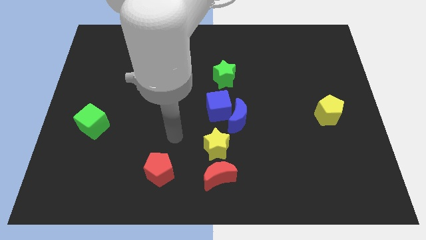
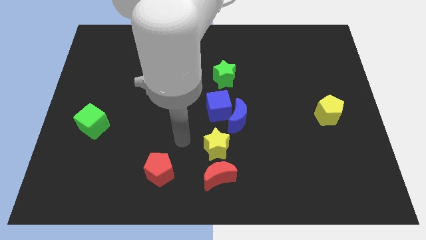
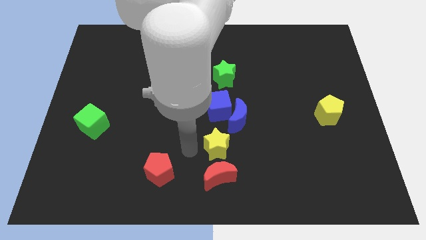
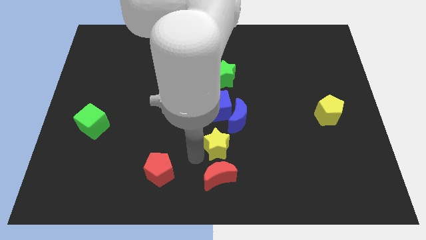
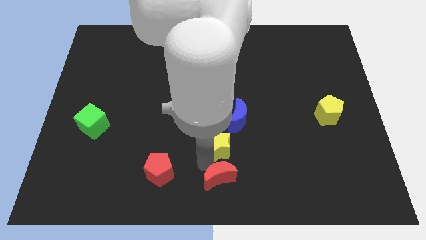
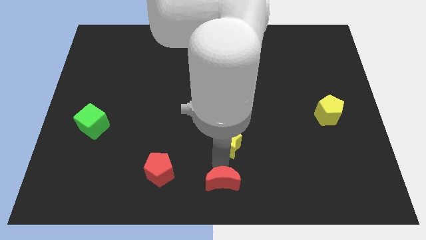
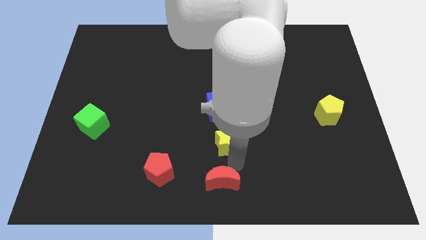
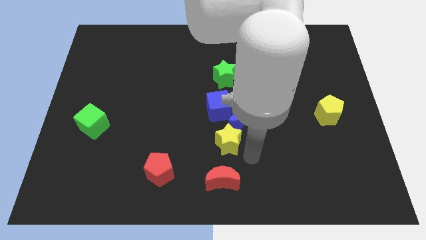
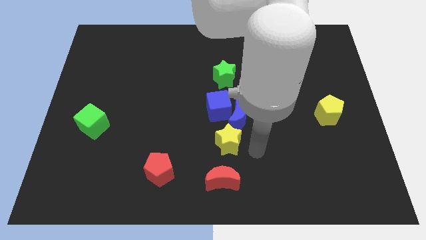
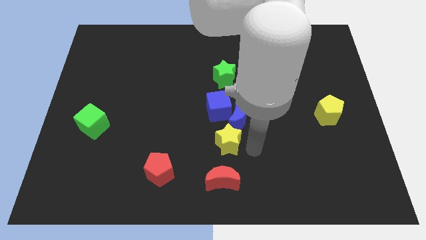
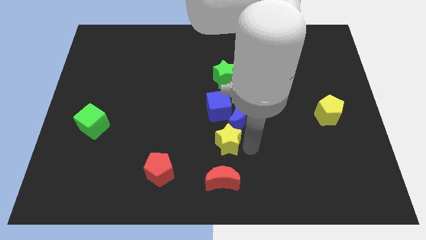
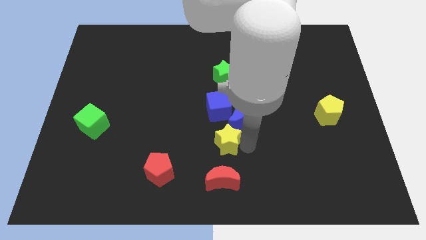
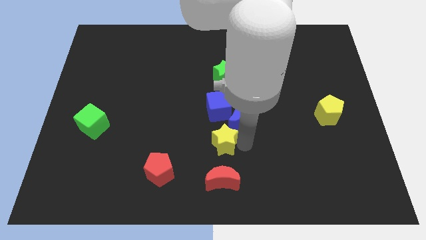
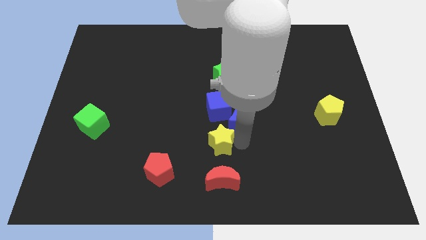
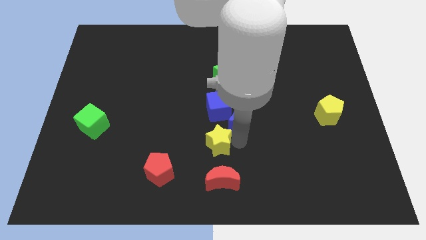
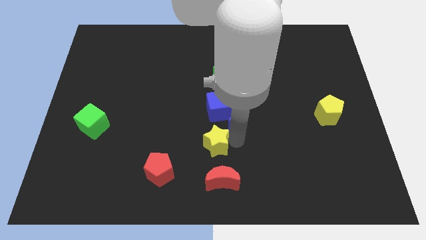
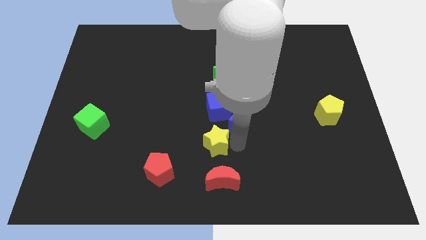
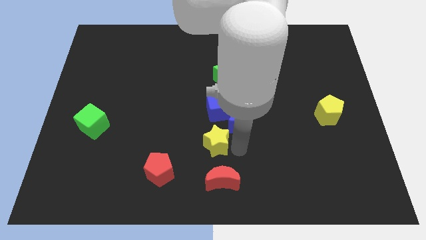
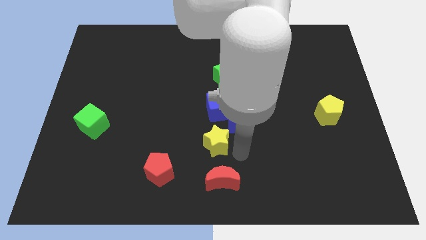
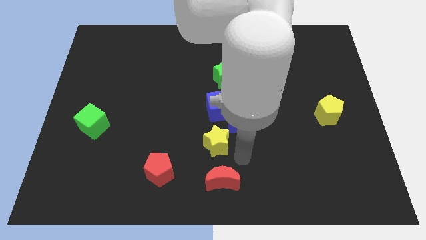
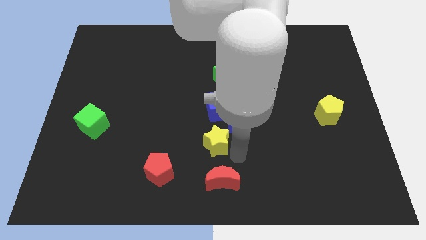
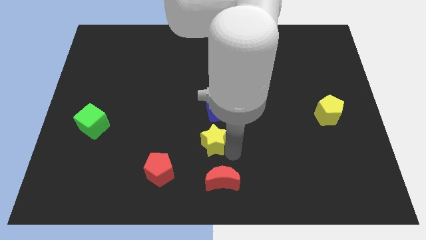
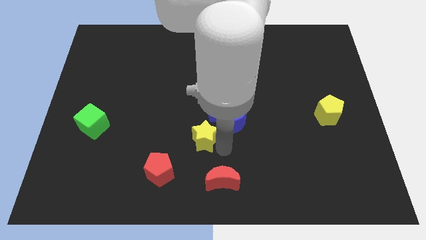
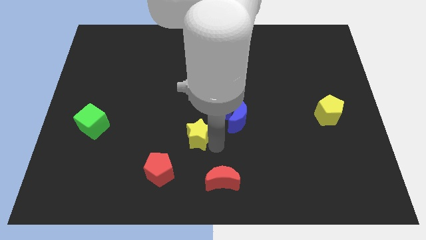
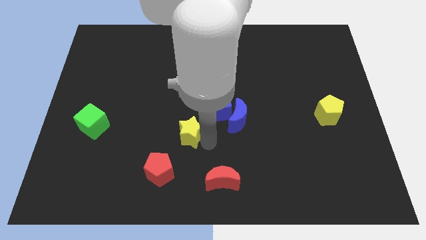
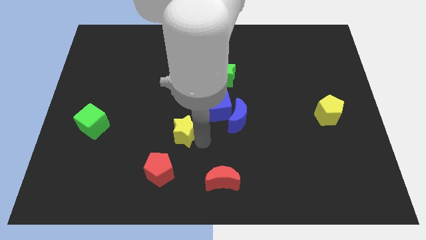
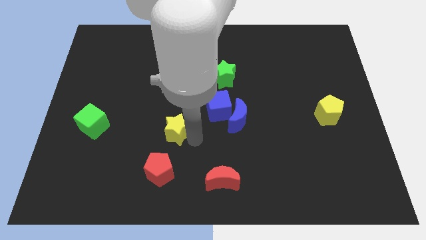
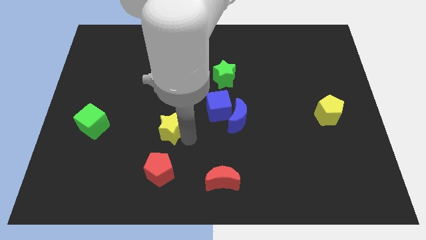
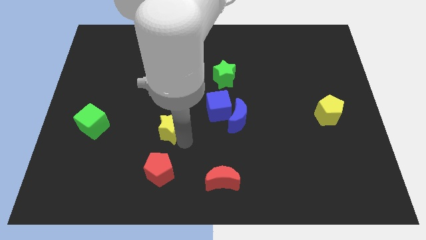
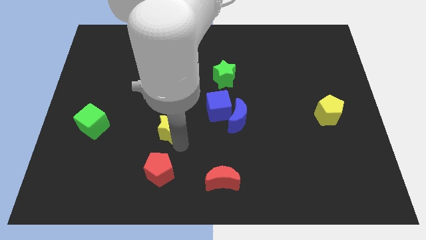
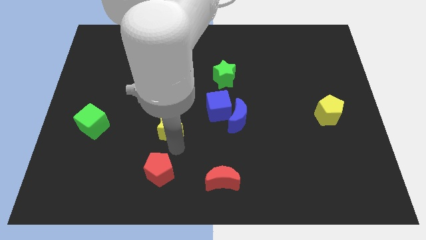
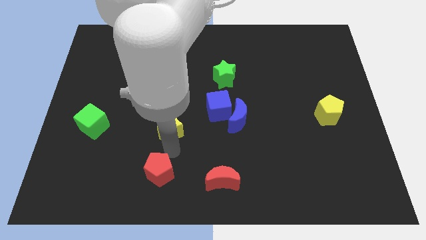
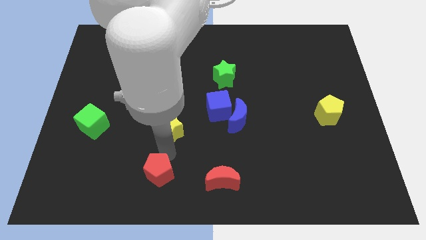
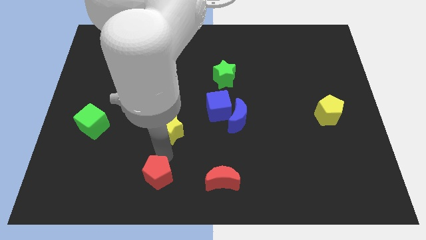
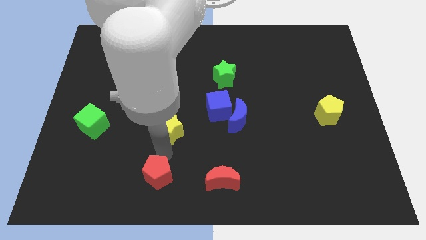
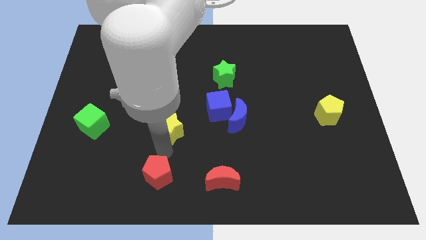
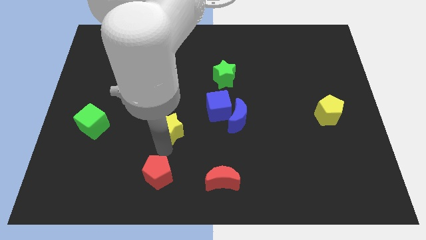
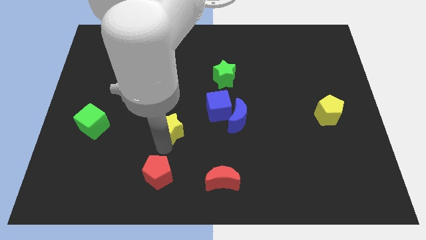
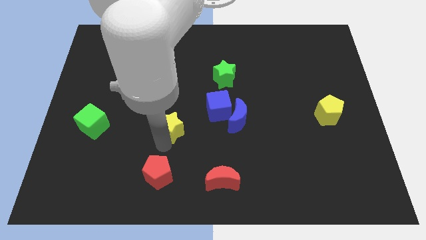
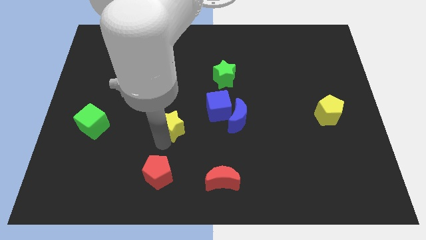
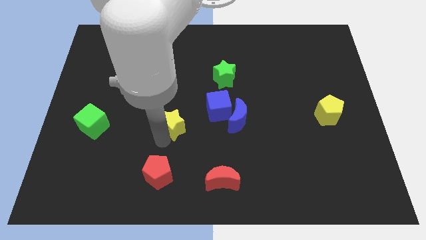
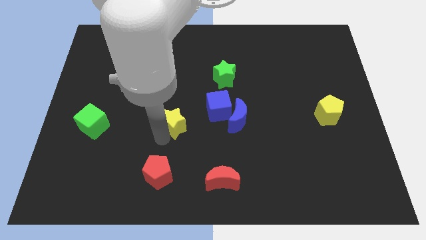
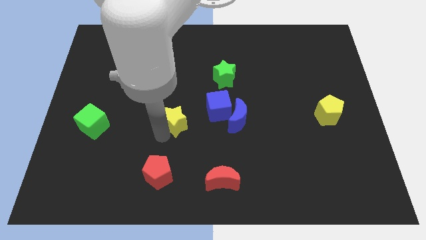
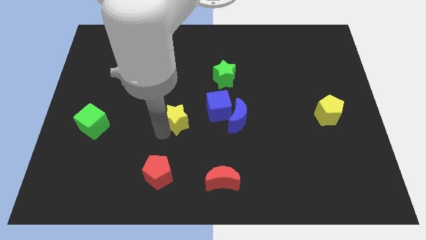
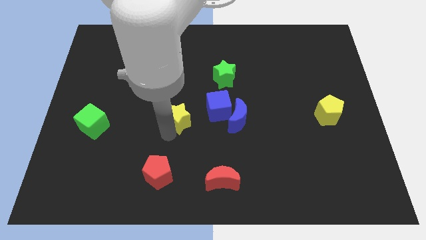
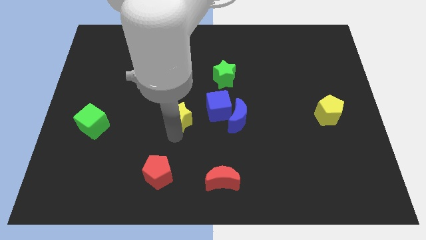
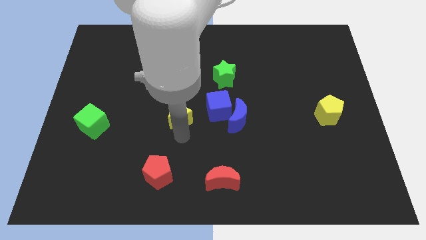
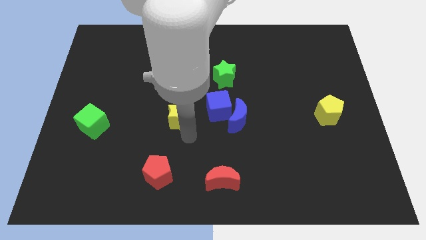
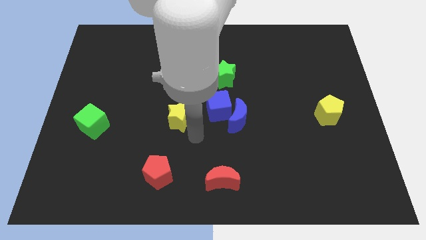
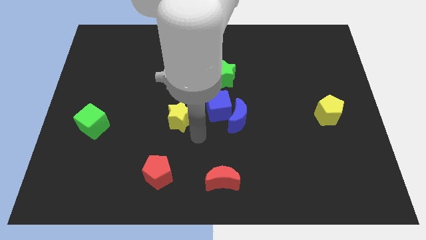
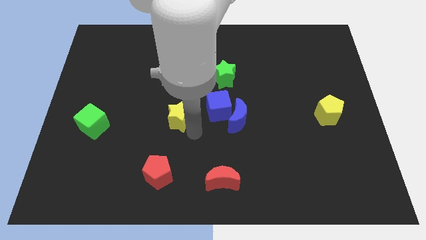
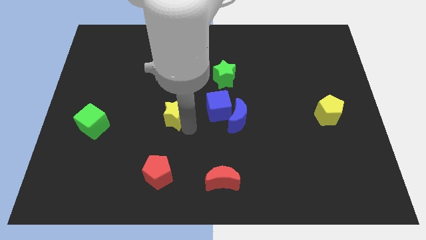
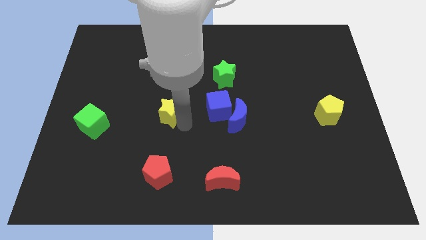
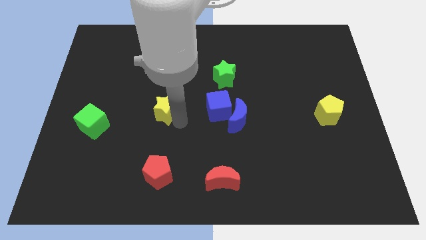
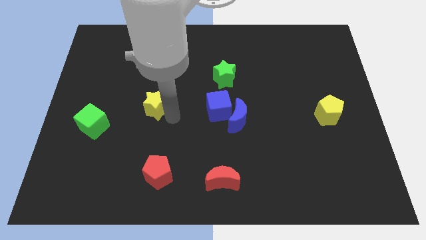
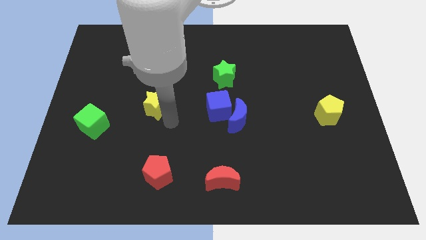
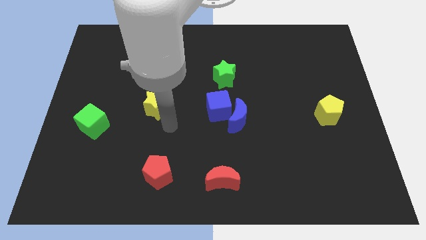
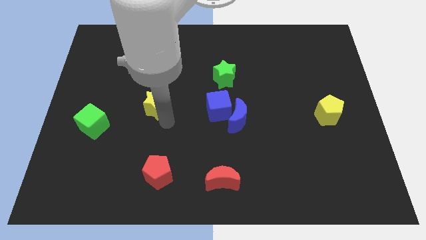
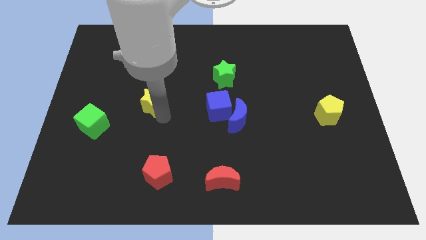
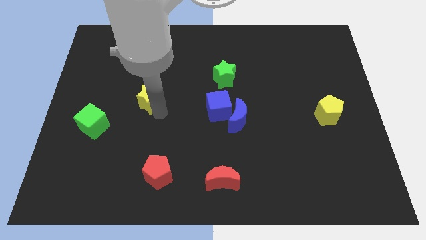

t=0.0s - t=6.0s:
push the yellow star upwards and then left

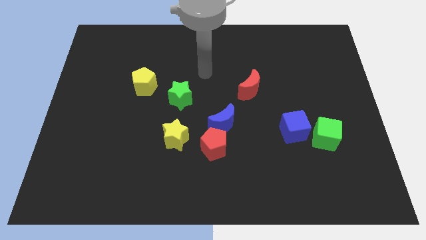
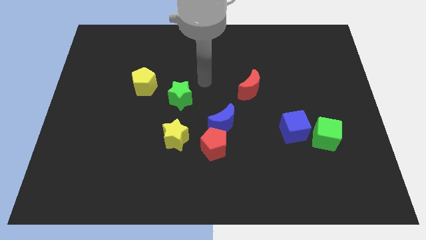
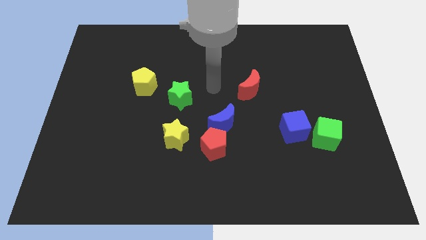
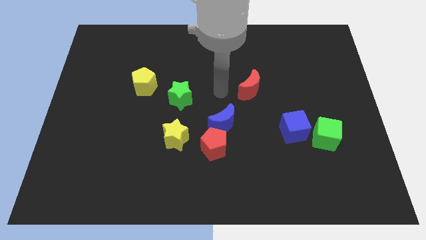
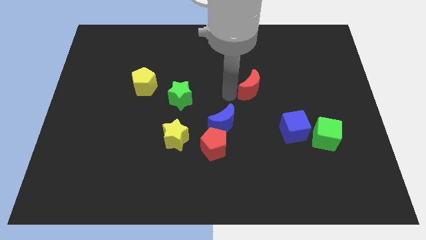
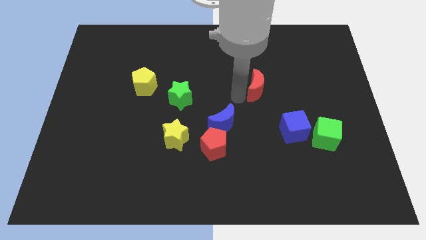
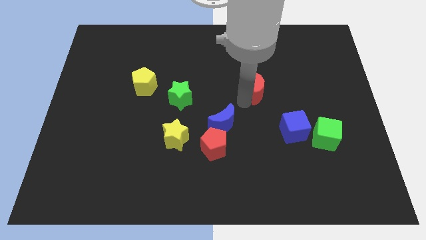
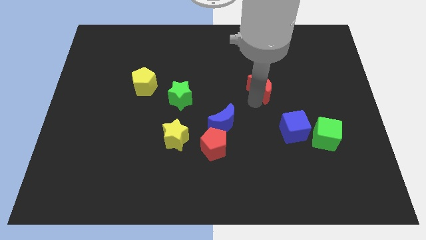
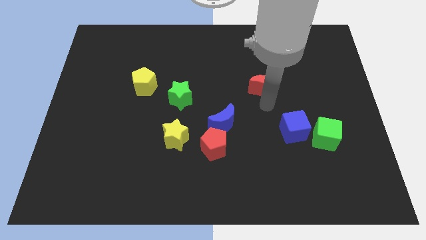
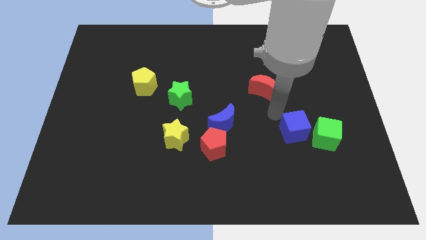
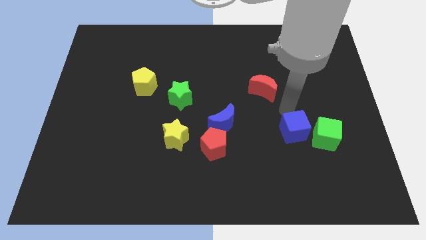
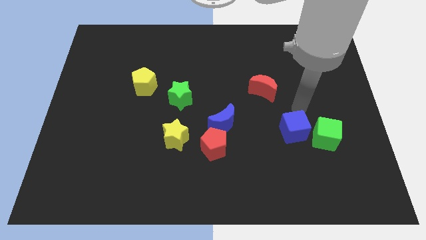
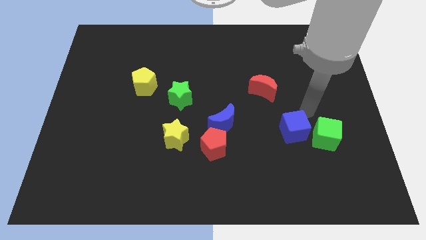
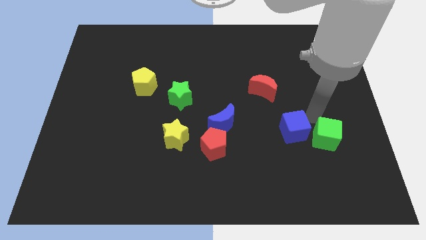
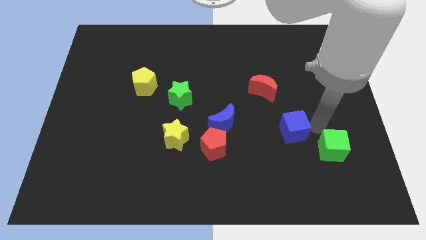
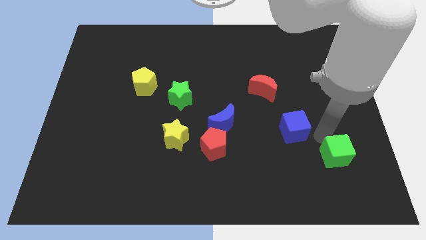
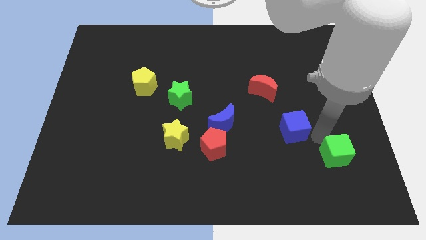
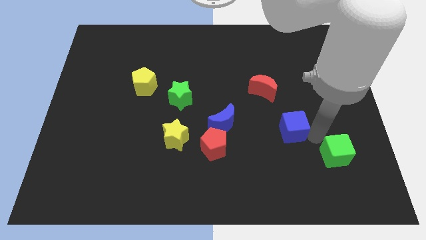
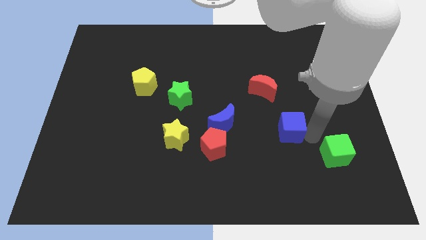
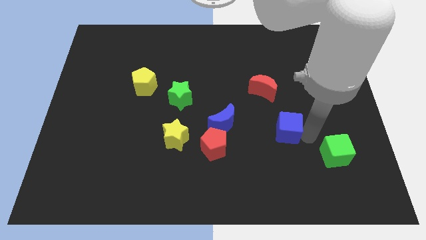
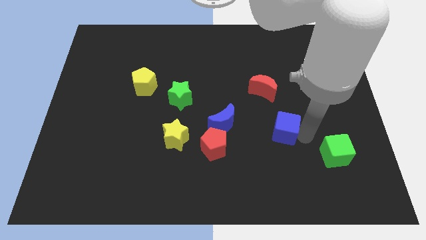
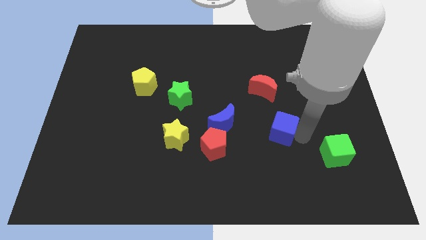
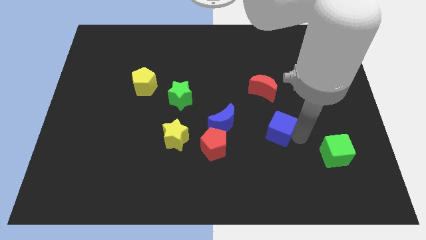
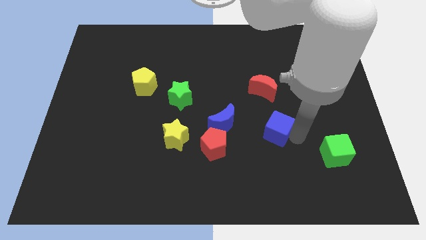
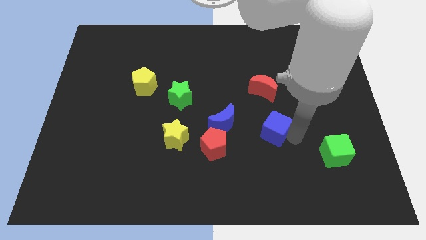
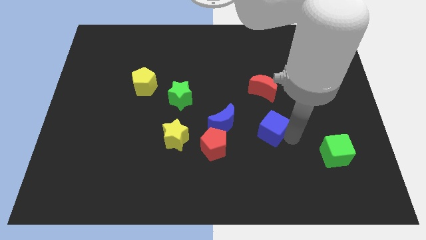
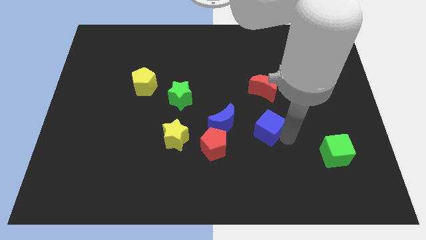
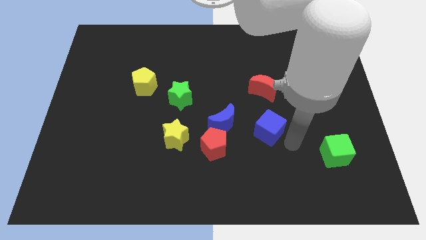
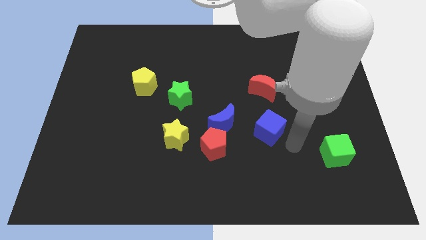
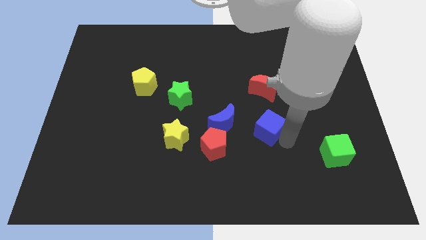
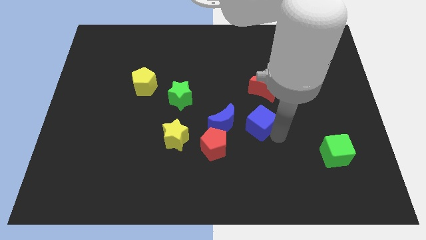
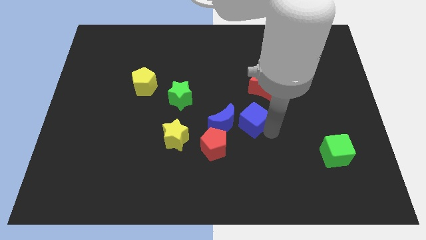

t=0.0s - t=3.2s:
slide the blue cube somewhat upwards and left diagonally
